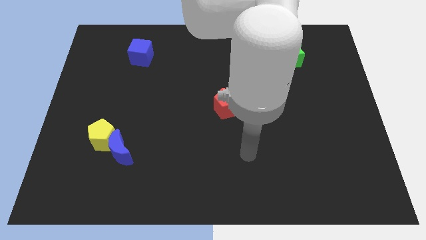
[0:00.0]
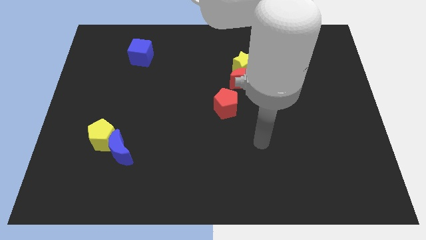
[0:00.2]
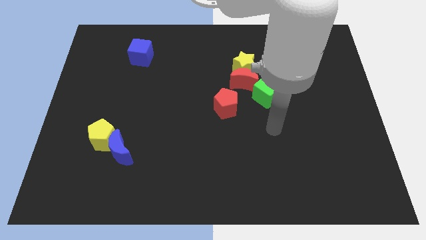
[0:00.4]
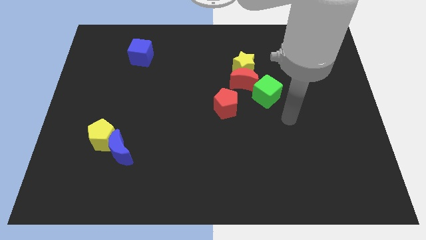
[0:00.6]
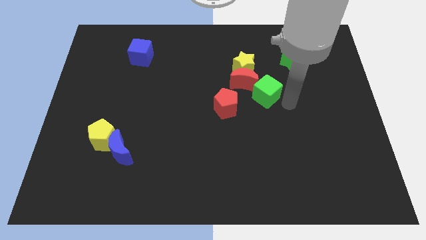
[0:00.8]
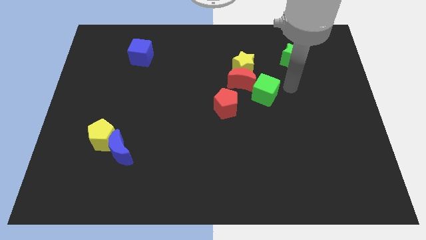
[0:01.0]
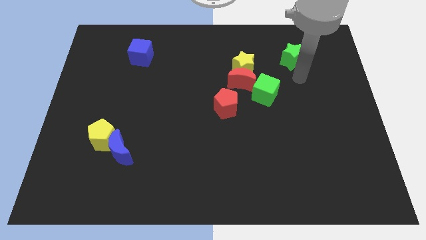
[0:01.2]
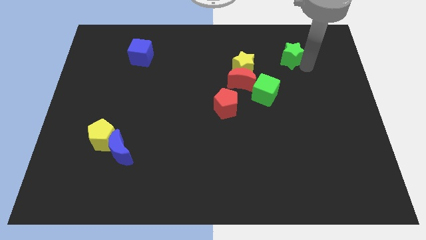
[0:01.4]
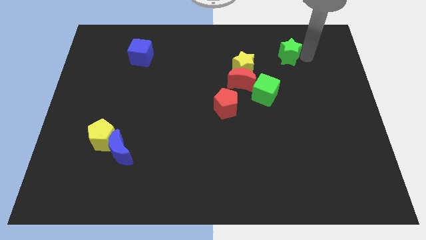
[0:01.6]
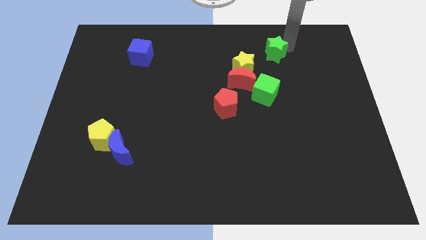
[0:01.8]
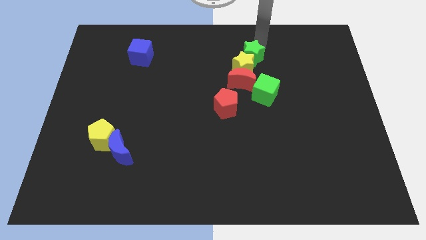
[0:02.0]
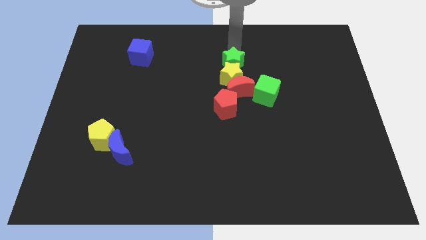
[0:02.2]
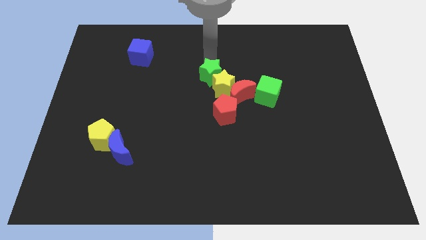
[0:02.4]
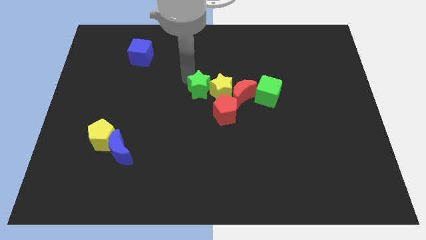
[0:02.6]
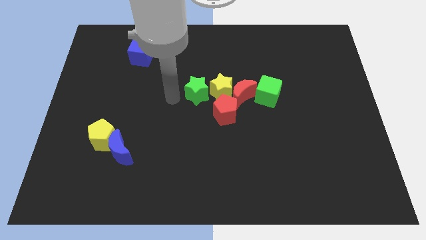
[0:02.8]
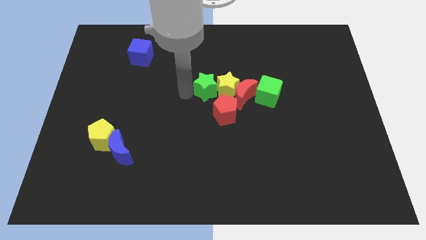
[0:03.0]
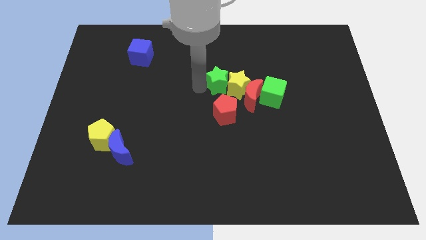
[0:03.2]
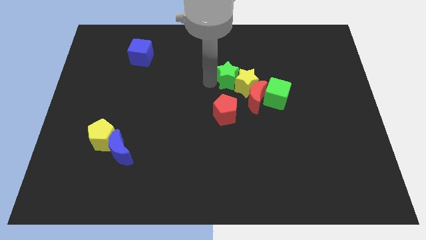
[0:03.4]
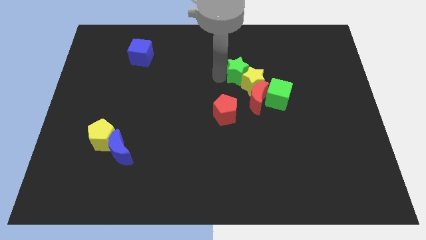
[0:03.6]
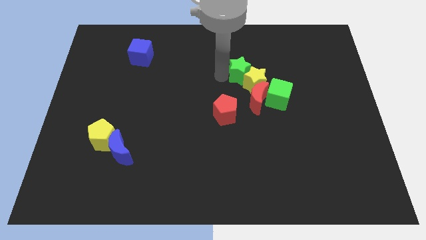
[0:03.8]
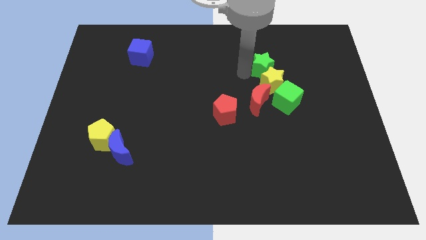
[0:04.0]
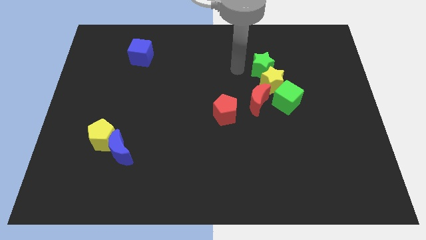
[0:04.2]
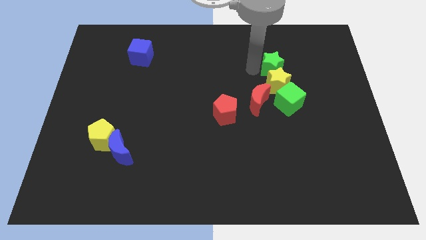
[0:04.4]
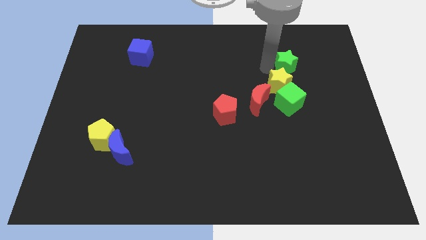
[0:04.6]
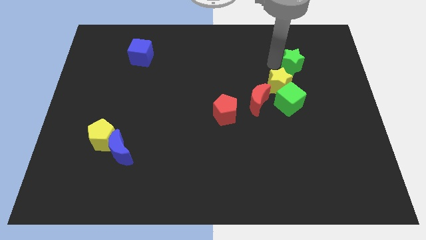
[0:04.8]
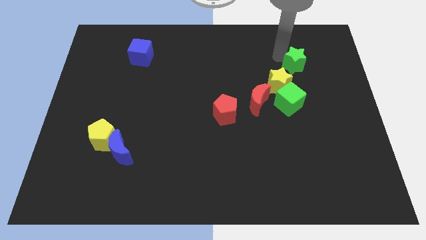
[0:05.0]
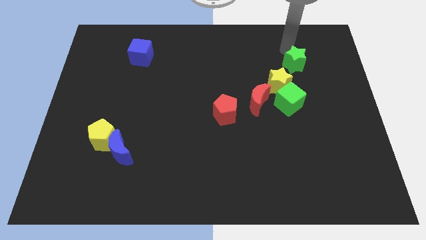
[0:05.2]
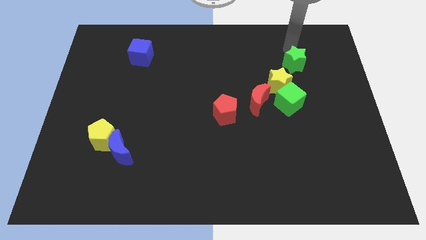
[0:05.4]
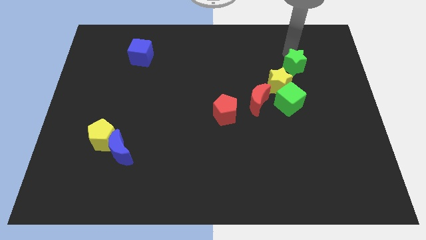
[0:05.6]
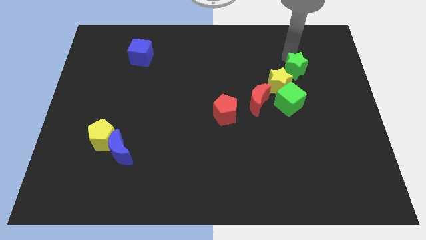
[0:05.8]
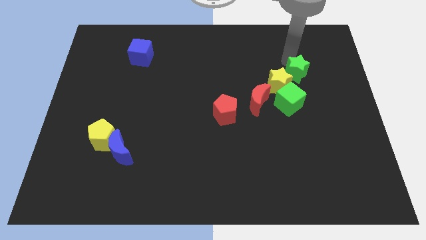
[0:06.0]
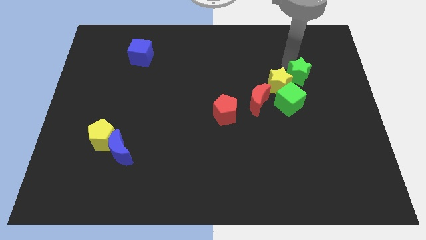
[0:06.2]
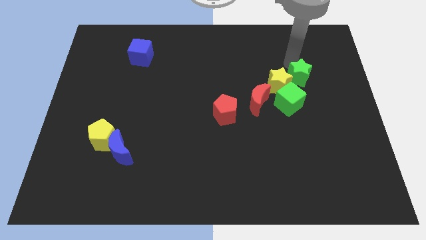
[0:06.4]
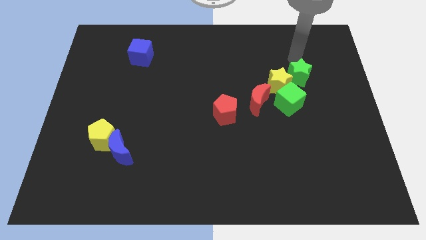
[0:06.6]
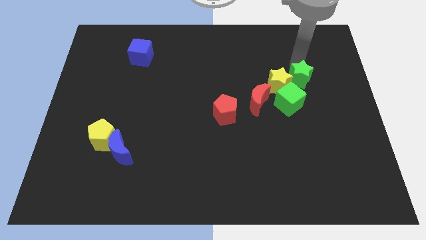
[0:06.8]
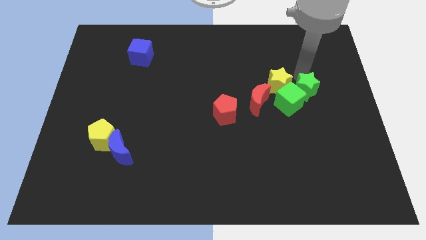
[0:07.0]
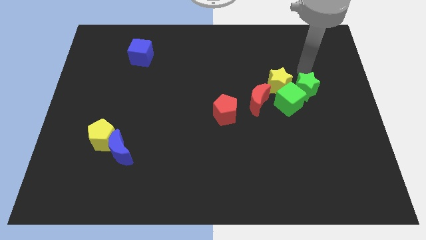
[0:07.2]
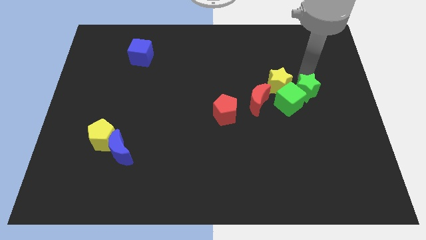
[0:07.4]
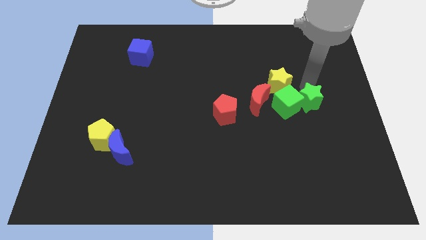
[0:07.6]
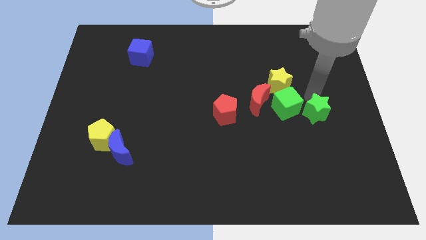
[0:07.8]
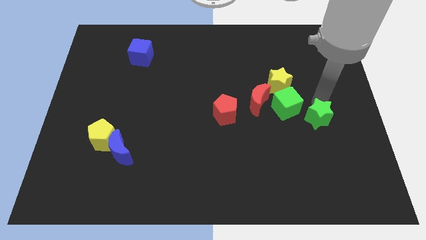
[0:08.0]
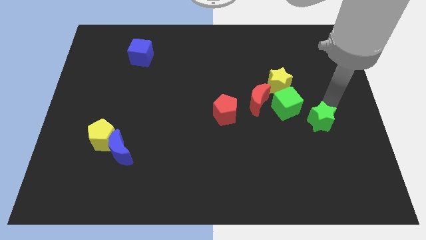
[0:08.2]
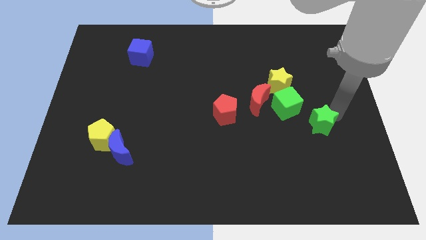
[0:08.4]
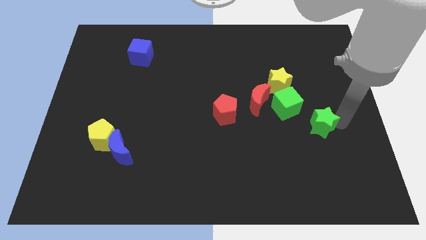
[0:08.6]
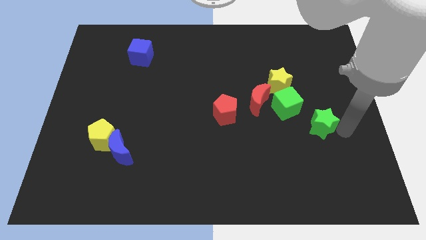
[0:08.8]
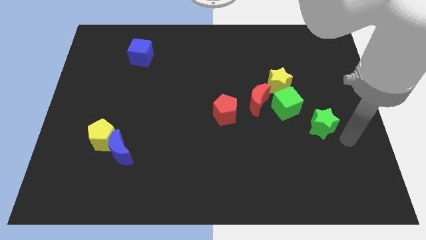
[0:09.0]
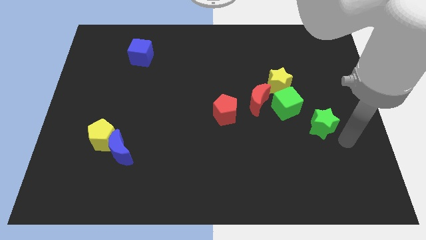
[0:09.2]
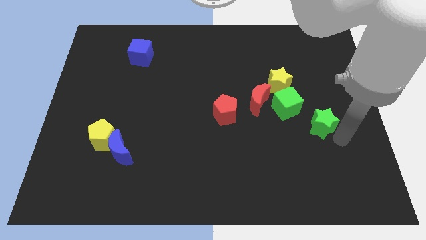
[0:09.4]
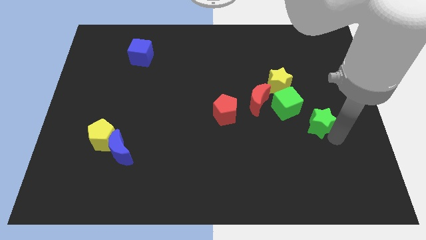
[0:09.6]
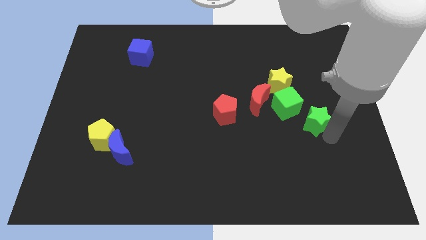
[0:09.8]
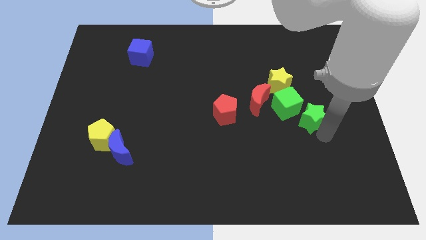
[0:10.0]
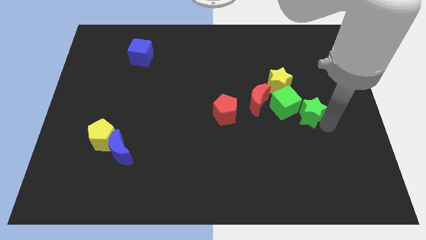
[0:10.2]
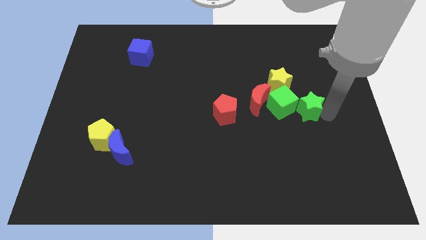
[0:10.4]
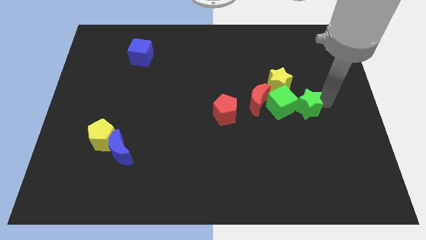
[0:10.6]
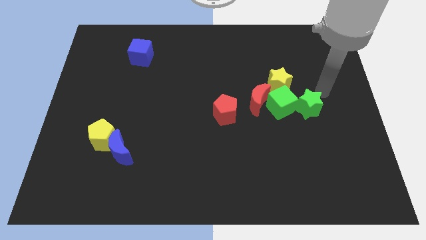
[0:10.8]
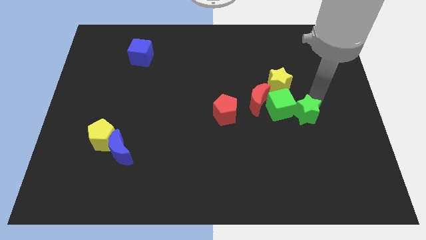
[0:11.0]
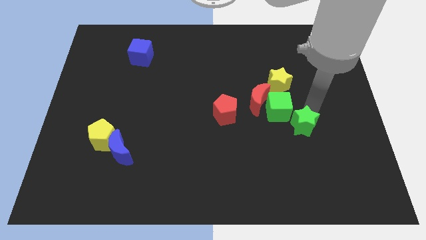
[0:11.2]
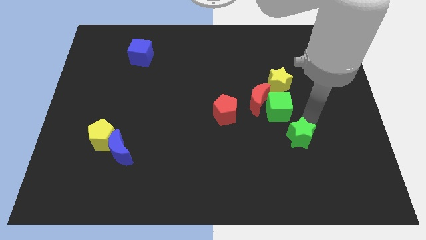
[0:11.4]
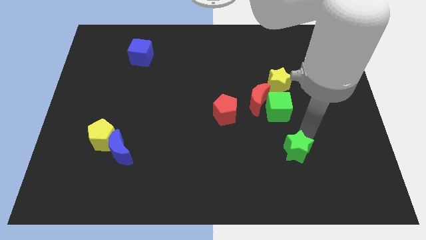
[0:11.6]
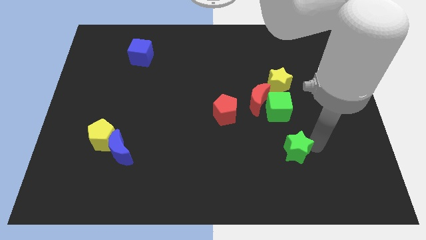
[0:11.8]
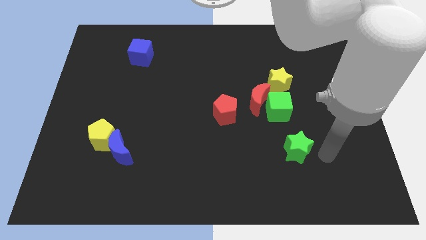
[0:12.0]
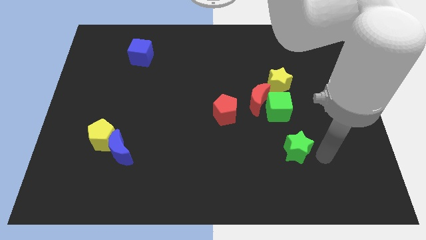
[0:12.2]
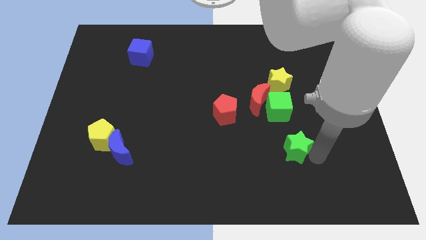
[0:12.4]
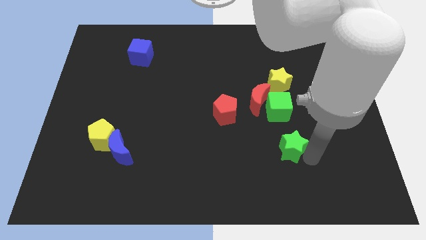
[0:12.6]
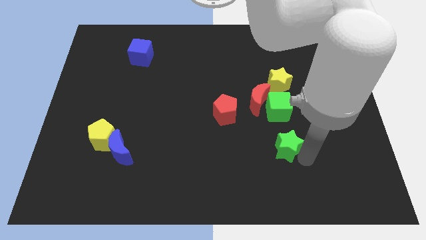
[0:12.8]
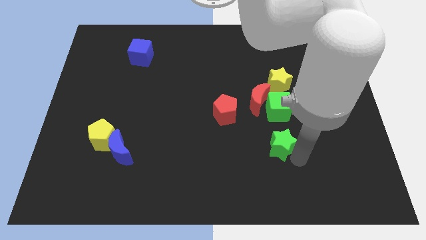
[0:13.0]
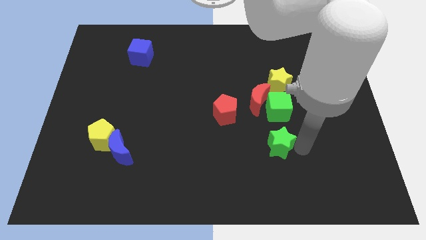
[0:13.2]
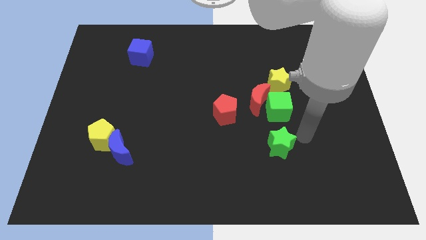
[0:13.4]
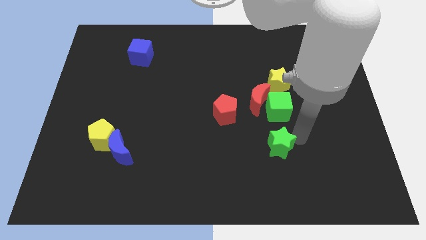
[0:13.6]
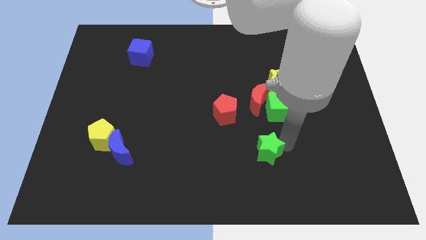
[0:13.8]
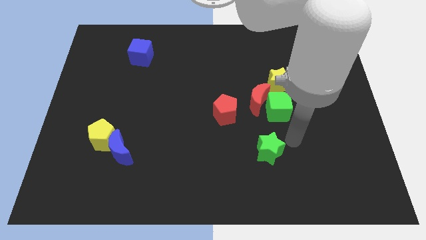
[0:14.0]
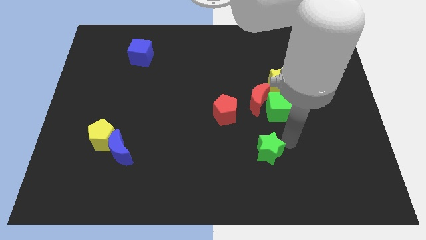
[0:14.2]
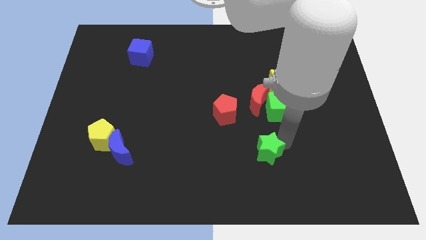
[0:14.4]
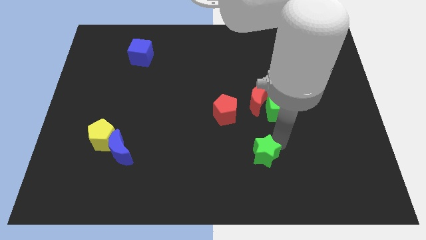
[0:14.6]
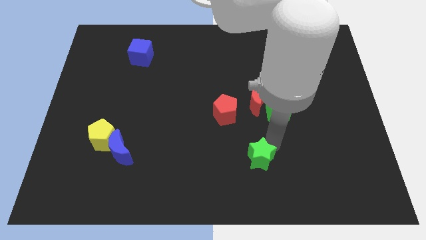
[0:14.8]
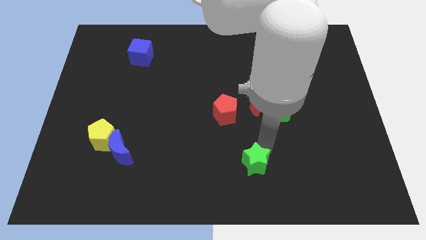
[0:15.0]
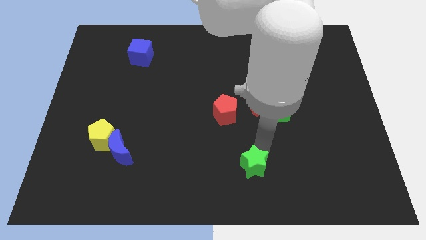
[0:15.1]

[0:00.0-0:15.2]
slide the green star to the bottom

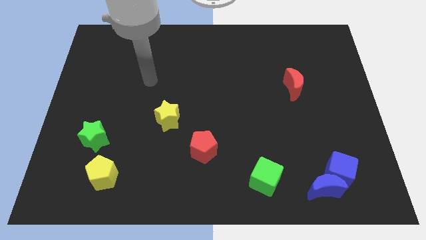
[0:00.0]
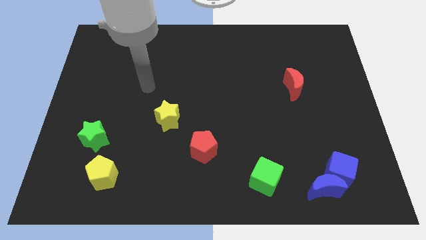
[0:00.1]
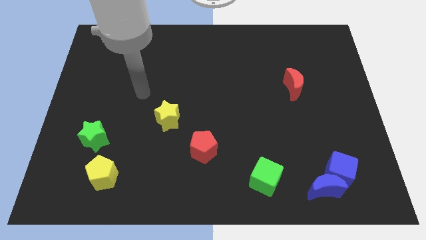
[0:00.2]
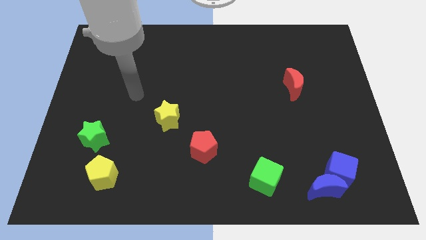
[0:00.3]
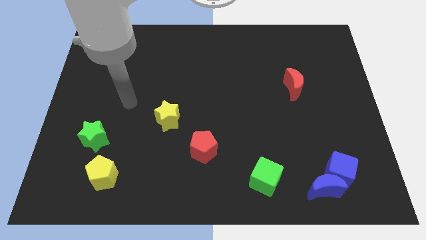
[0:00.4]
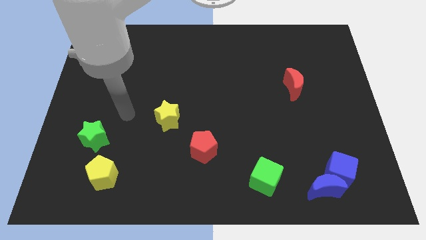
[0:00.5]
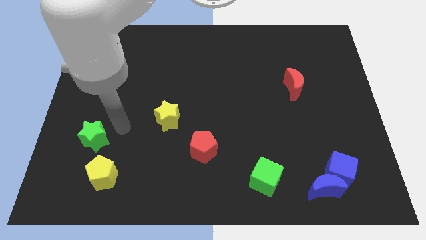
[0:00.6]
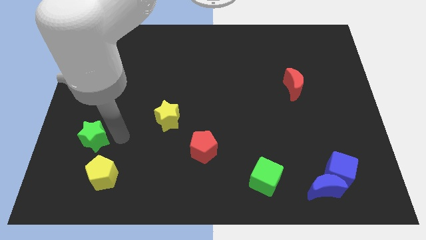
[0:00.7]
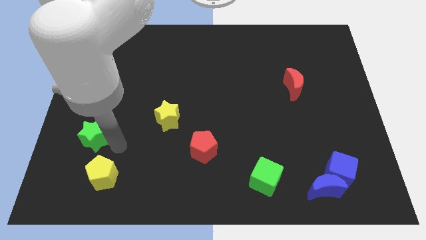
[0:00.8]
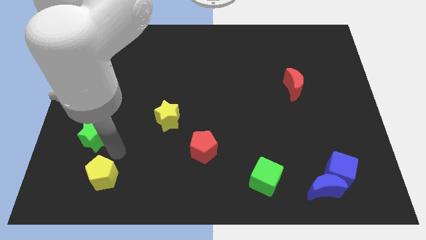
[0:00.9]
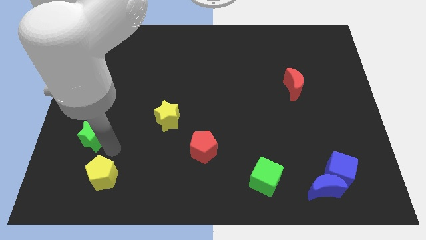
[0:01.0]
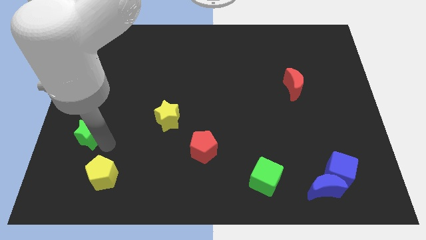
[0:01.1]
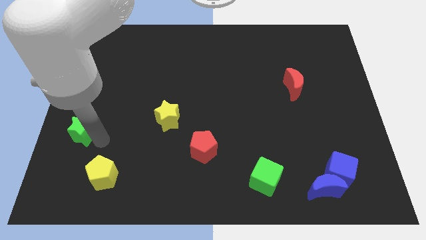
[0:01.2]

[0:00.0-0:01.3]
slide the green star to the center left
